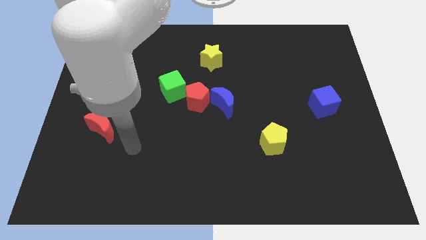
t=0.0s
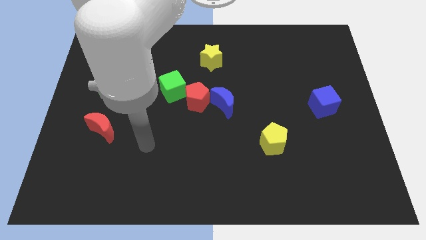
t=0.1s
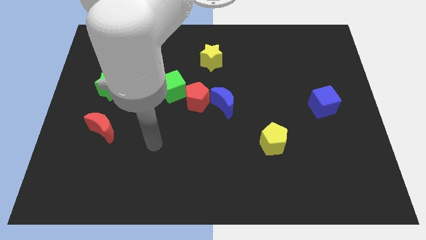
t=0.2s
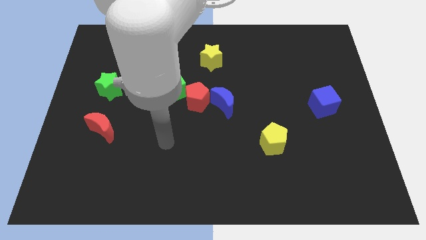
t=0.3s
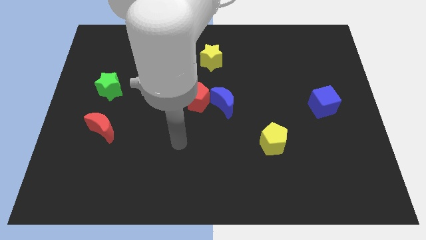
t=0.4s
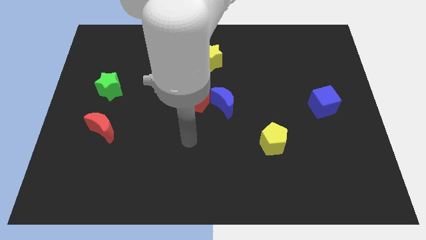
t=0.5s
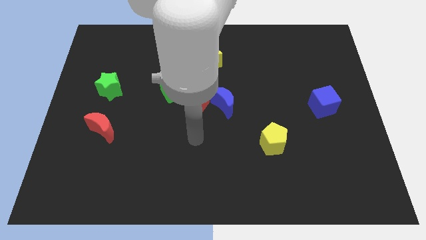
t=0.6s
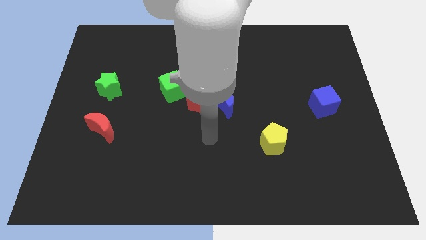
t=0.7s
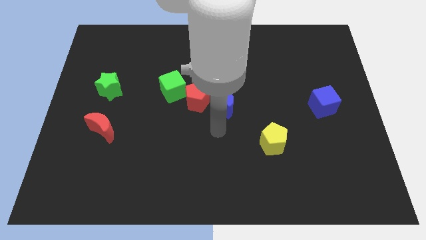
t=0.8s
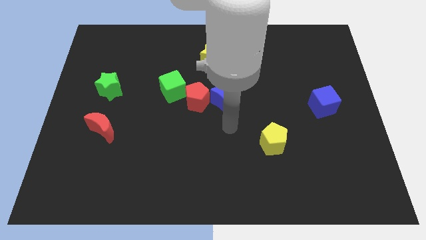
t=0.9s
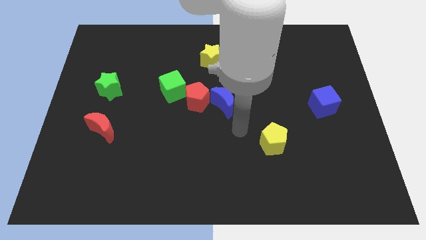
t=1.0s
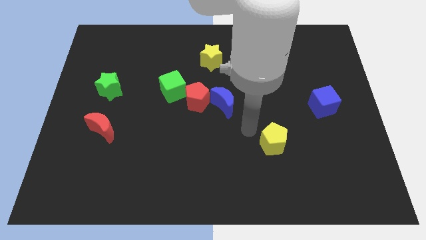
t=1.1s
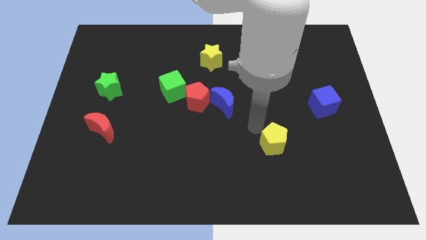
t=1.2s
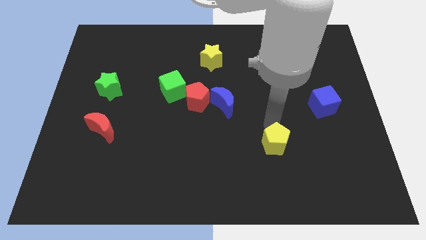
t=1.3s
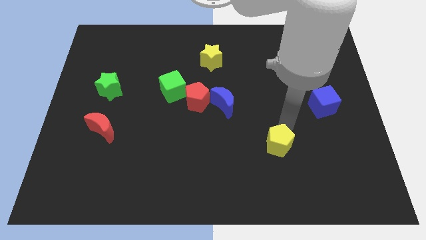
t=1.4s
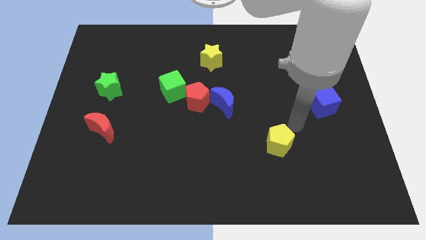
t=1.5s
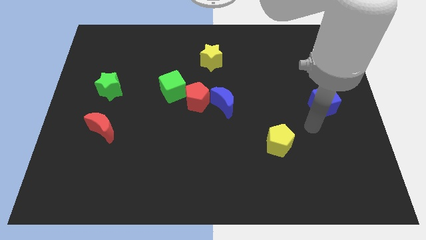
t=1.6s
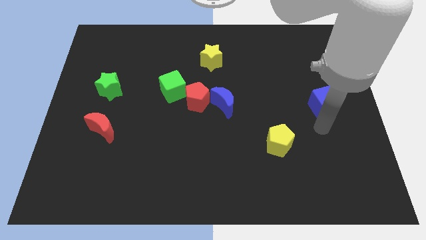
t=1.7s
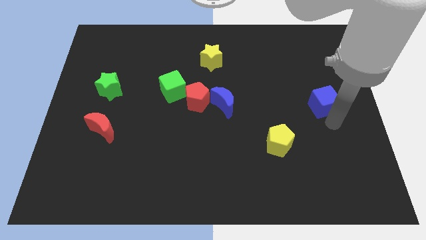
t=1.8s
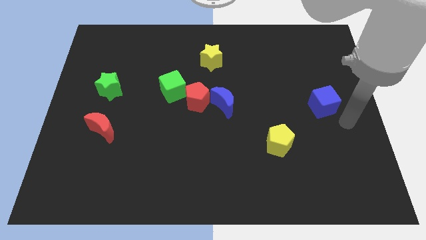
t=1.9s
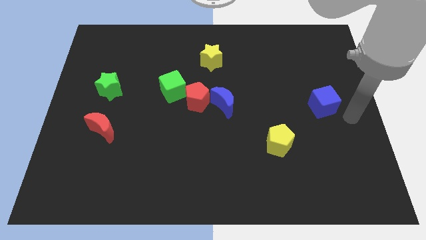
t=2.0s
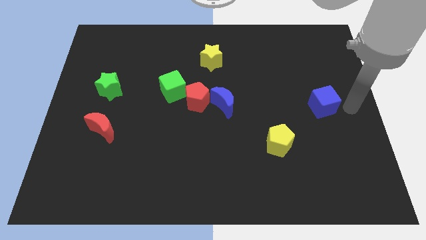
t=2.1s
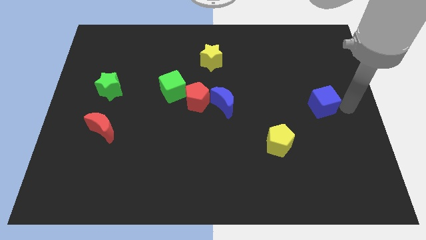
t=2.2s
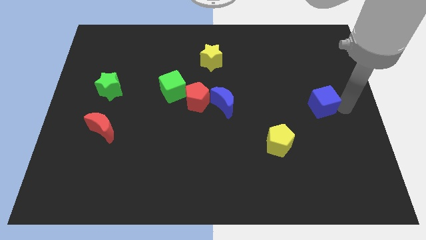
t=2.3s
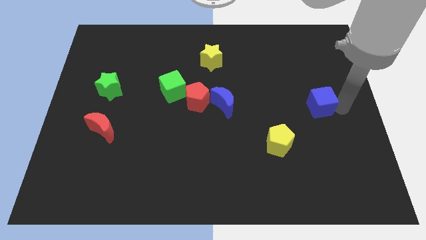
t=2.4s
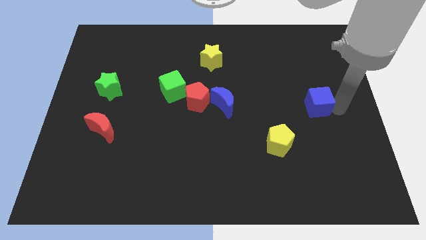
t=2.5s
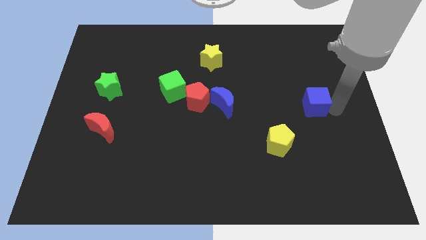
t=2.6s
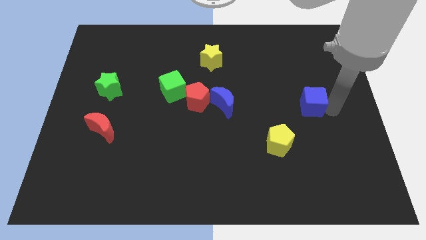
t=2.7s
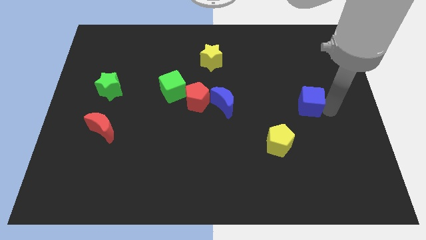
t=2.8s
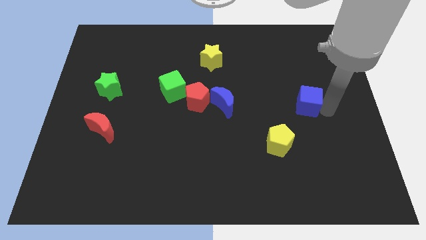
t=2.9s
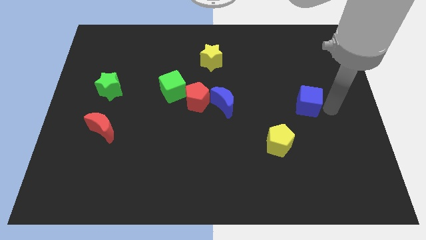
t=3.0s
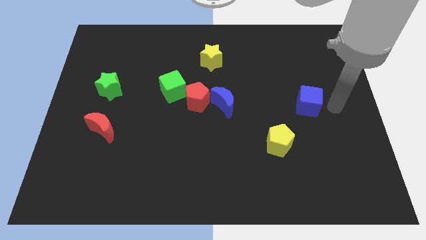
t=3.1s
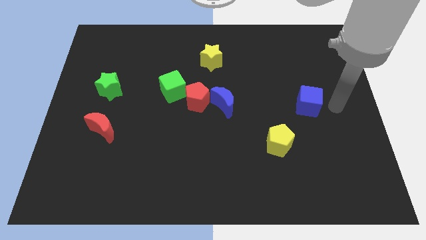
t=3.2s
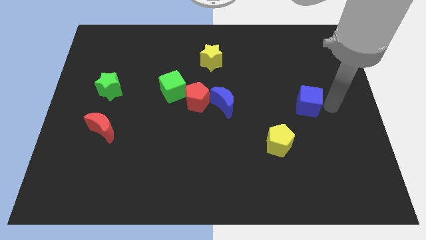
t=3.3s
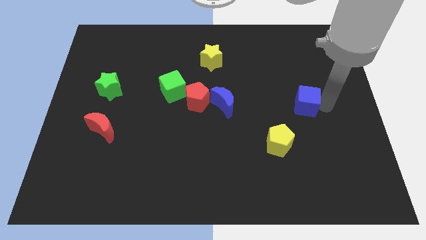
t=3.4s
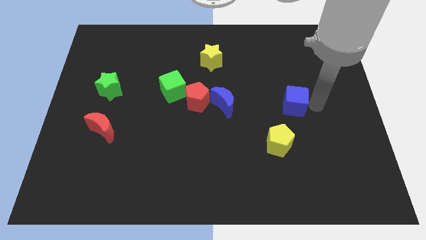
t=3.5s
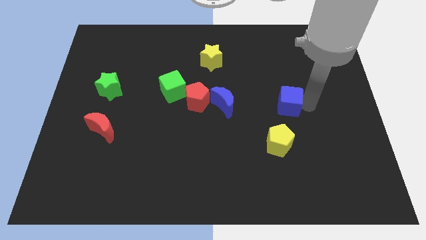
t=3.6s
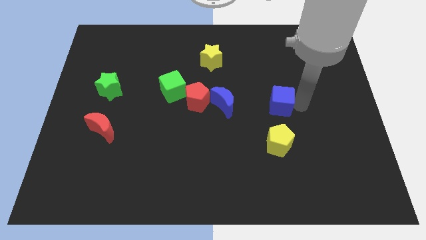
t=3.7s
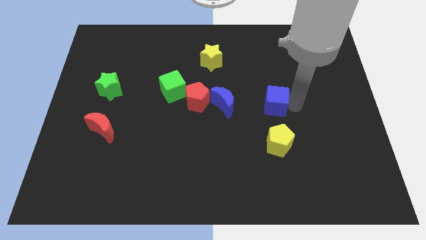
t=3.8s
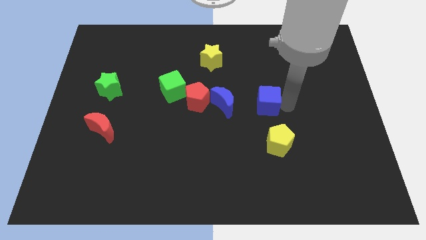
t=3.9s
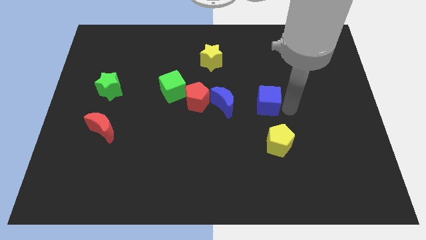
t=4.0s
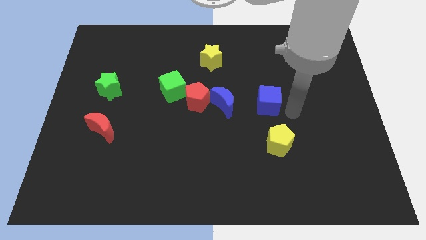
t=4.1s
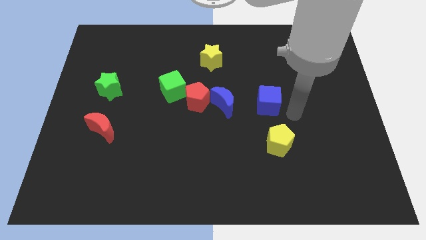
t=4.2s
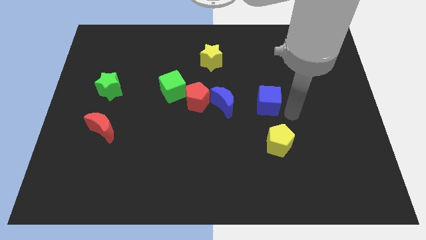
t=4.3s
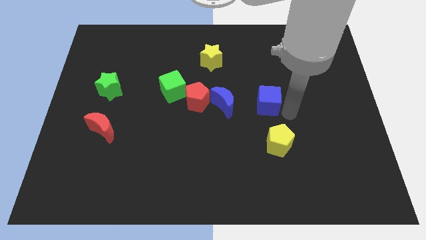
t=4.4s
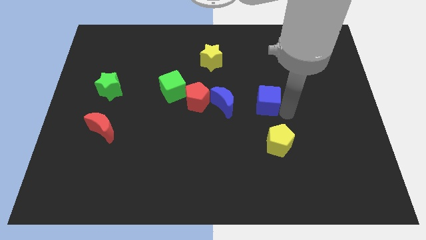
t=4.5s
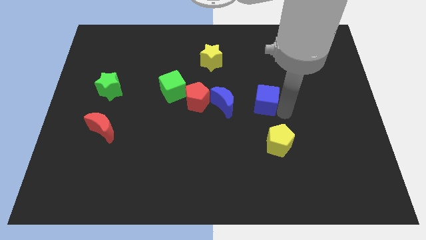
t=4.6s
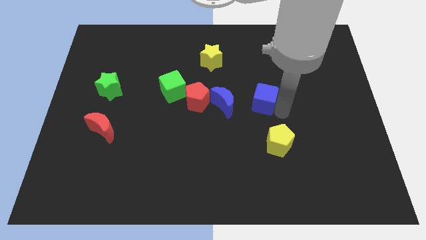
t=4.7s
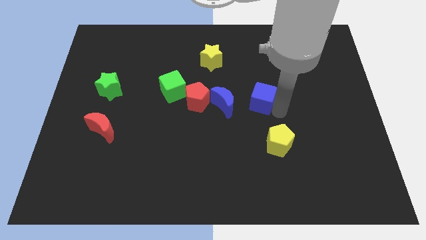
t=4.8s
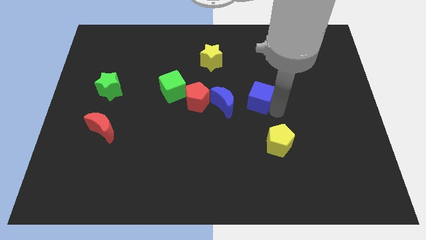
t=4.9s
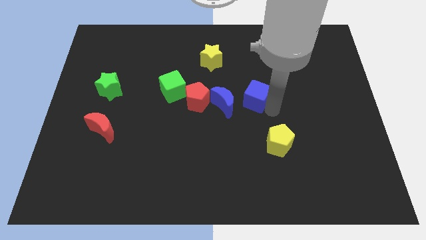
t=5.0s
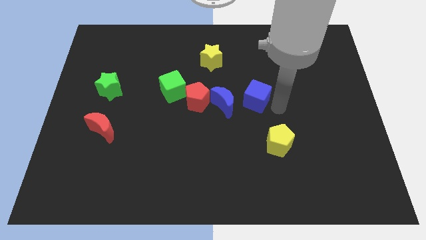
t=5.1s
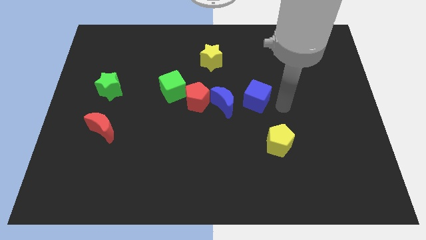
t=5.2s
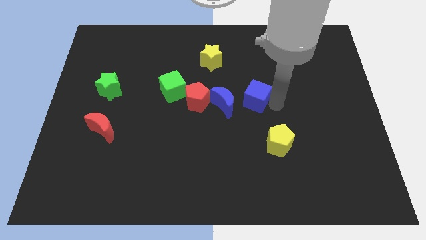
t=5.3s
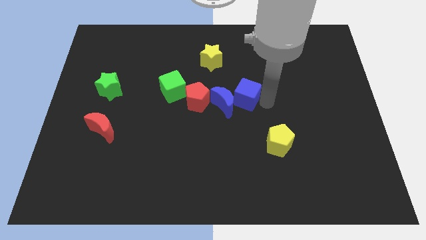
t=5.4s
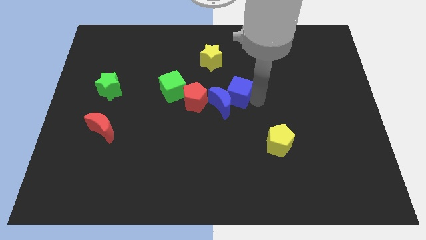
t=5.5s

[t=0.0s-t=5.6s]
push the blue cube to the right side of the green cube

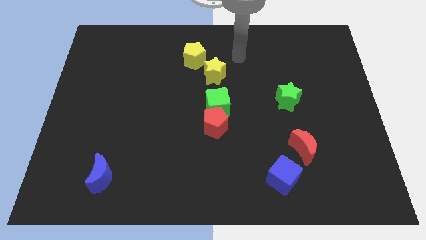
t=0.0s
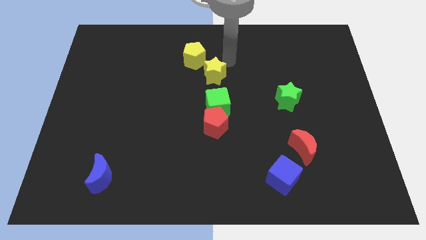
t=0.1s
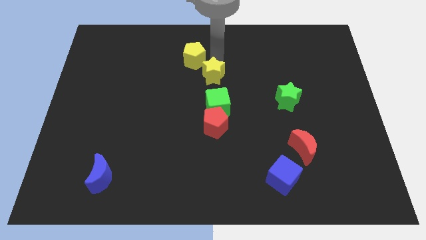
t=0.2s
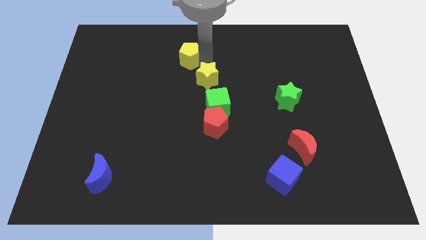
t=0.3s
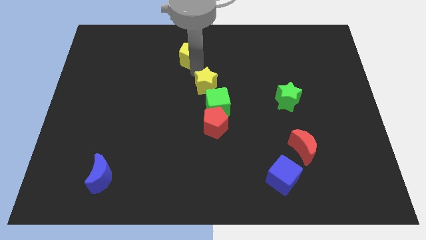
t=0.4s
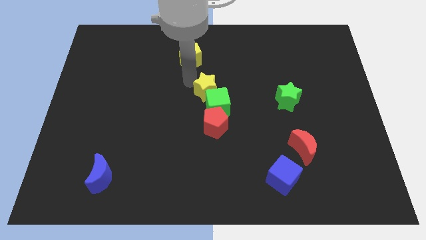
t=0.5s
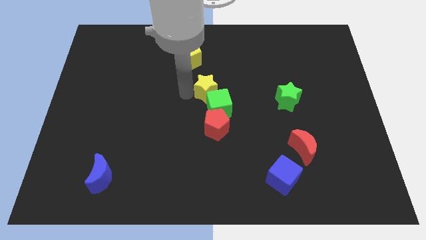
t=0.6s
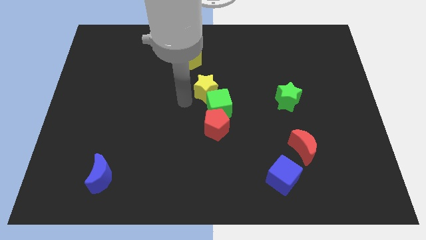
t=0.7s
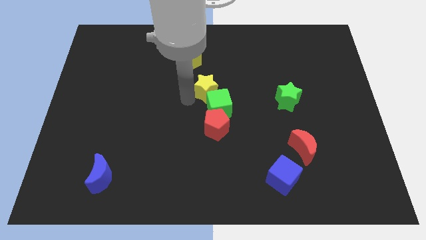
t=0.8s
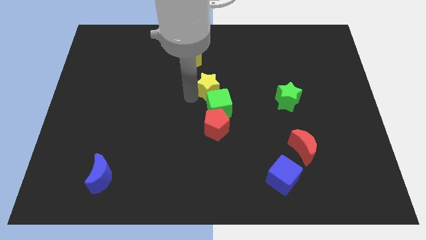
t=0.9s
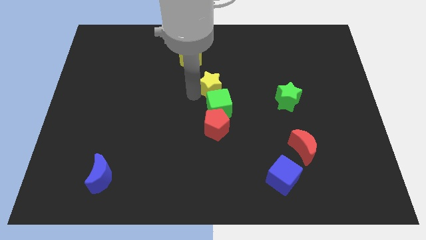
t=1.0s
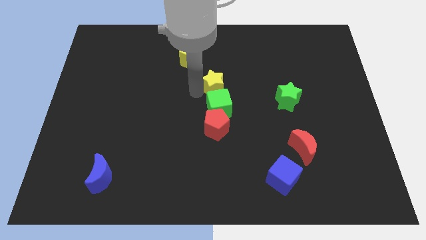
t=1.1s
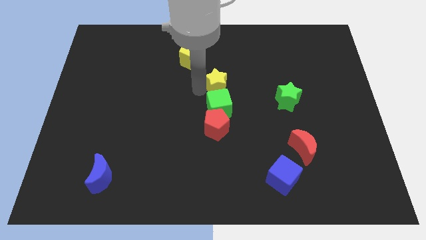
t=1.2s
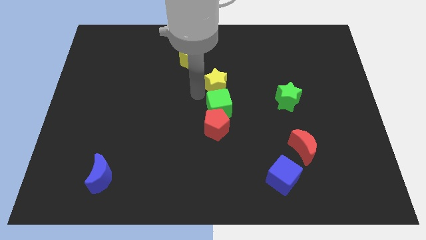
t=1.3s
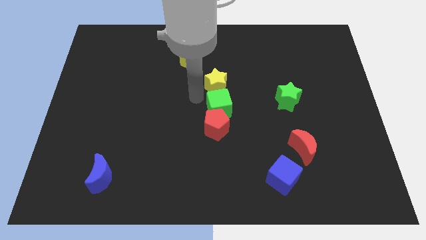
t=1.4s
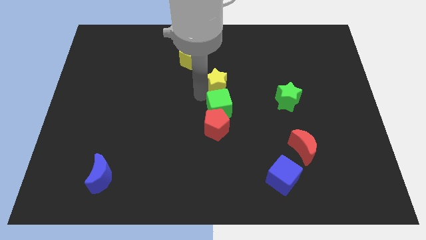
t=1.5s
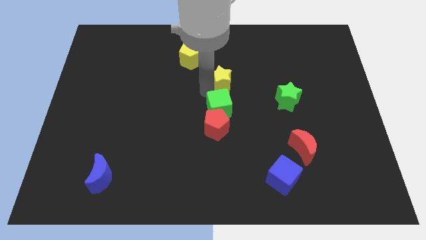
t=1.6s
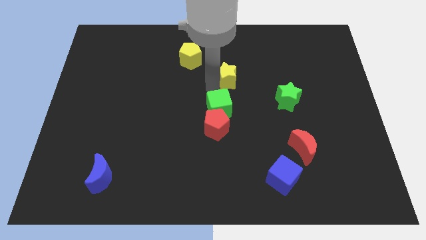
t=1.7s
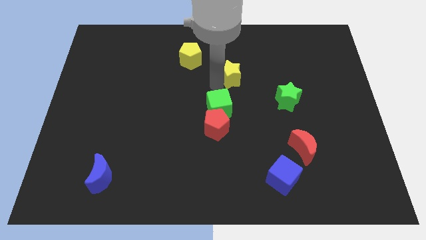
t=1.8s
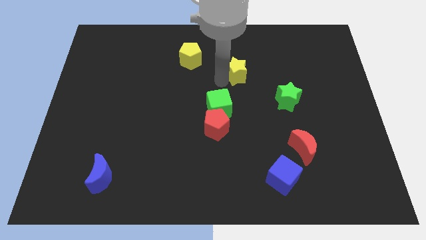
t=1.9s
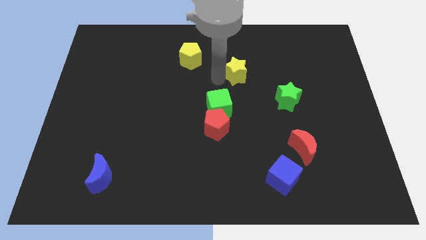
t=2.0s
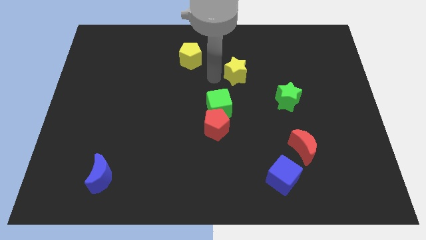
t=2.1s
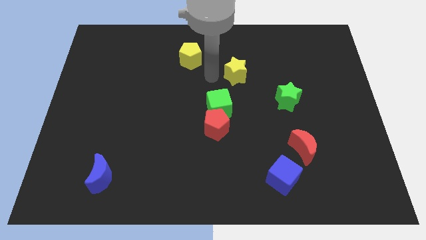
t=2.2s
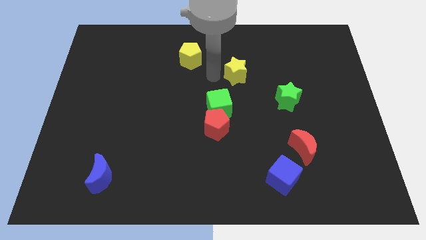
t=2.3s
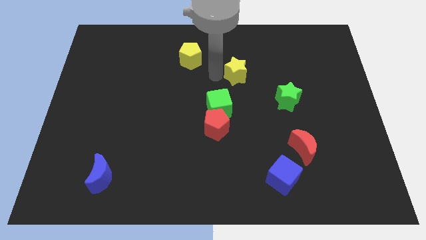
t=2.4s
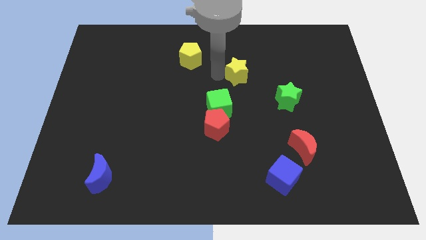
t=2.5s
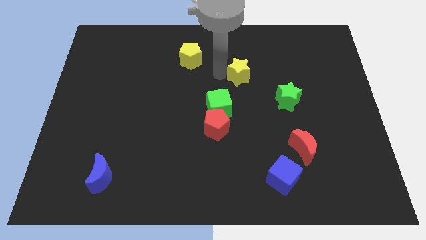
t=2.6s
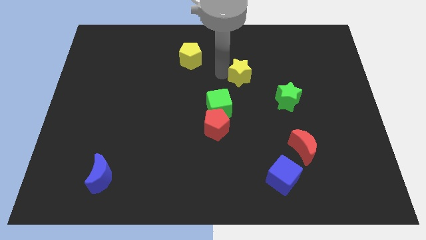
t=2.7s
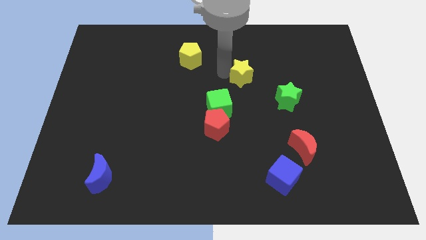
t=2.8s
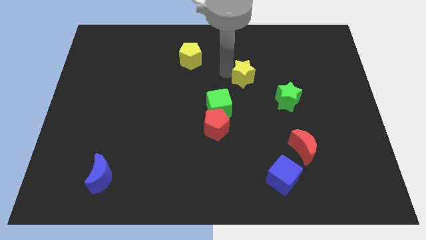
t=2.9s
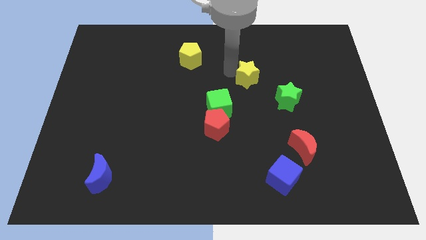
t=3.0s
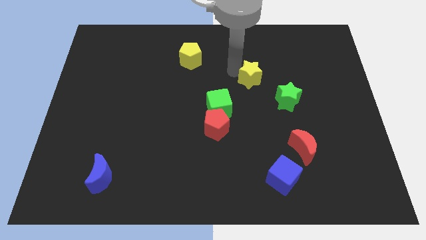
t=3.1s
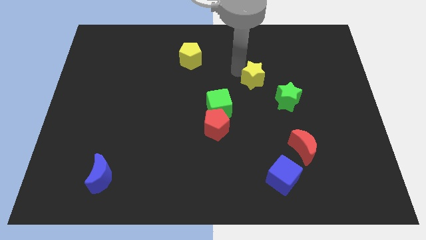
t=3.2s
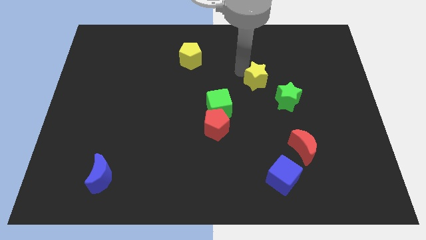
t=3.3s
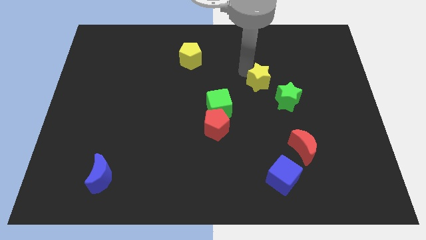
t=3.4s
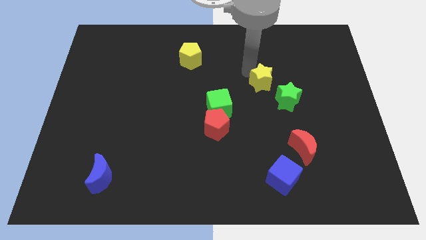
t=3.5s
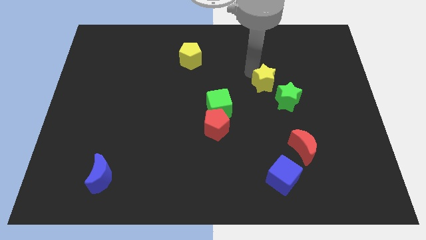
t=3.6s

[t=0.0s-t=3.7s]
put the yellow star to the top side of the green star
